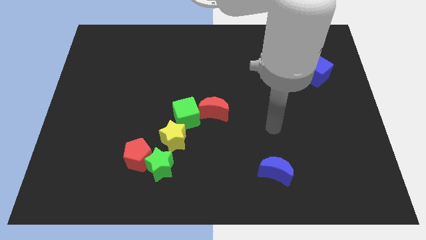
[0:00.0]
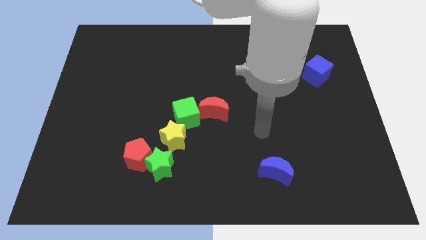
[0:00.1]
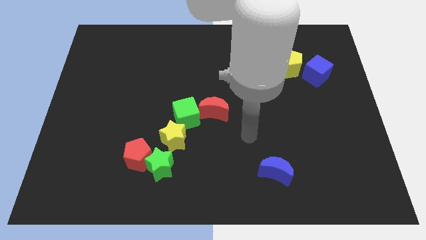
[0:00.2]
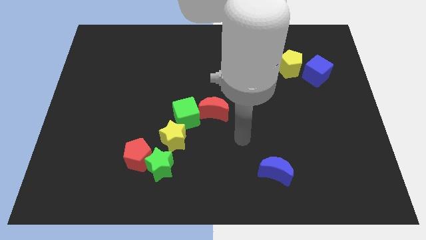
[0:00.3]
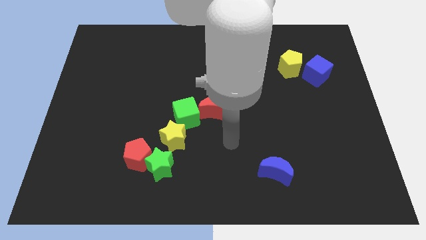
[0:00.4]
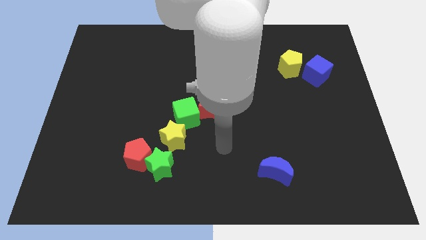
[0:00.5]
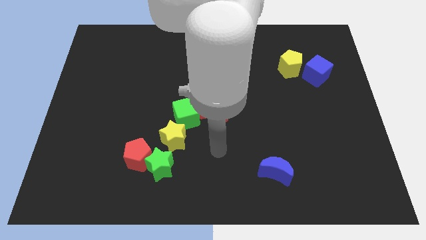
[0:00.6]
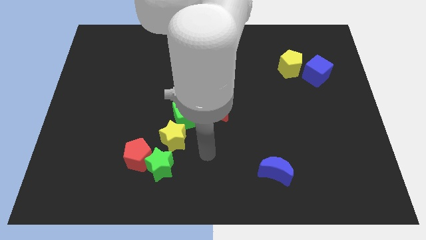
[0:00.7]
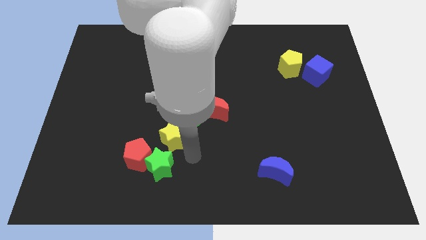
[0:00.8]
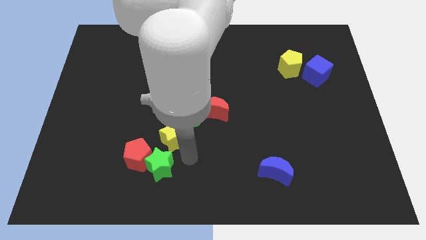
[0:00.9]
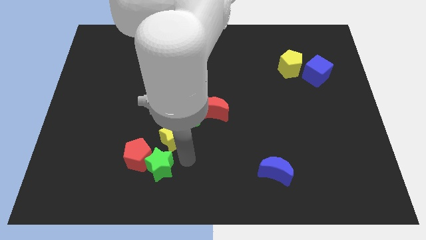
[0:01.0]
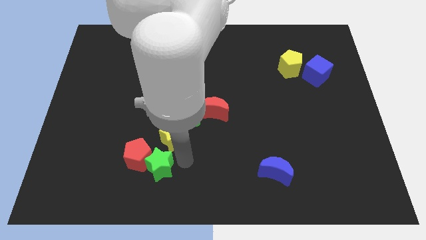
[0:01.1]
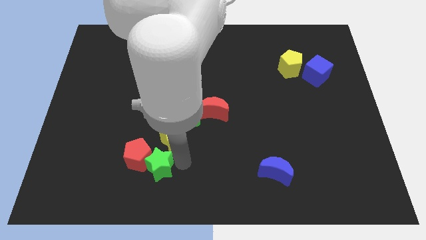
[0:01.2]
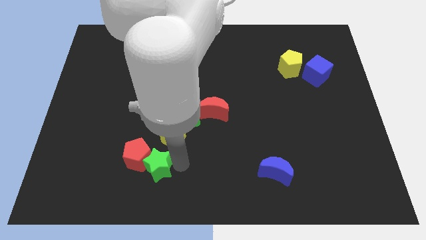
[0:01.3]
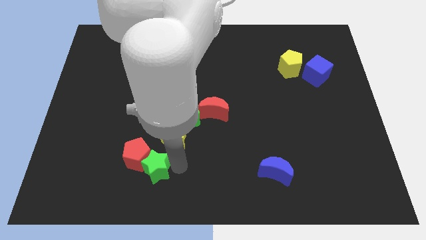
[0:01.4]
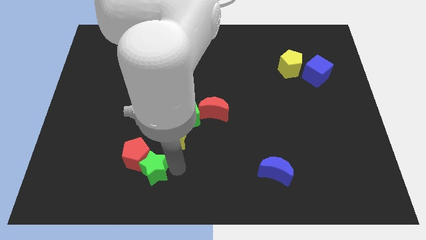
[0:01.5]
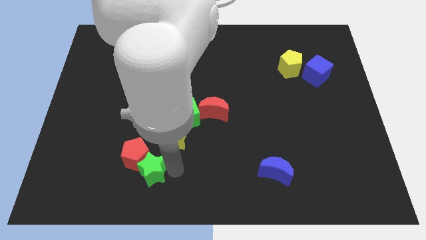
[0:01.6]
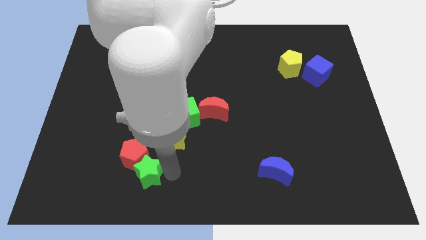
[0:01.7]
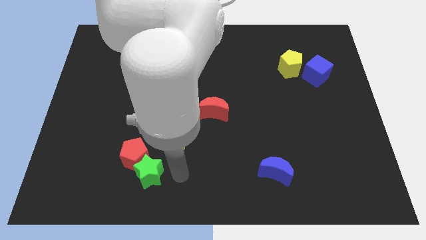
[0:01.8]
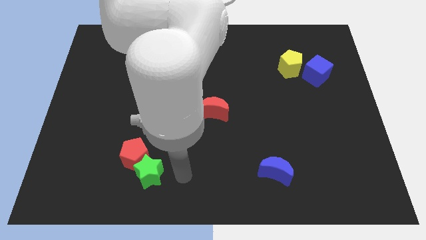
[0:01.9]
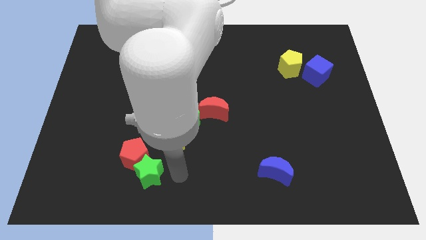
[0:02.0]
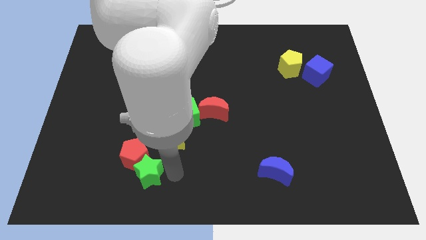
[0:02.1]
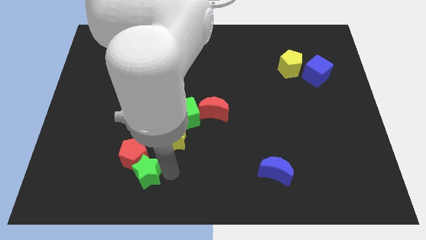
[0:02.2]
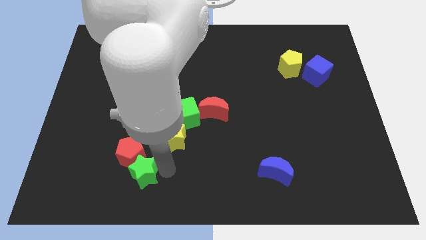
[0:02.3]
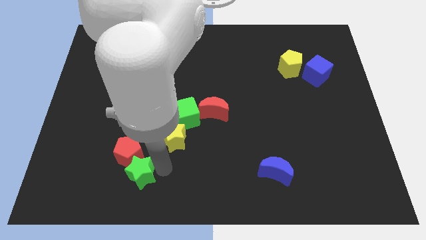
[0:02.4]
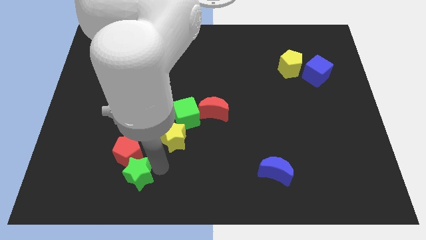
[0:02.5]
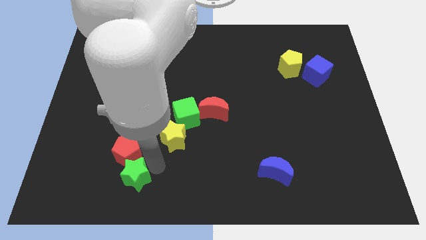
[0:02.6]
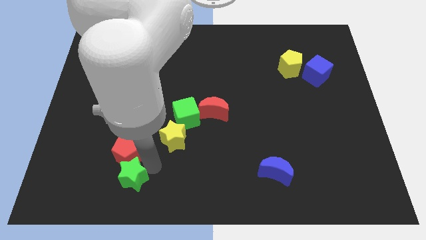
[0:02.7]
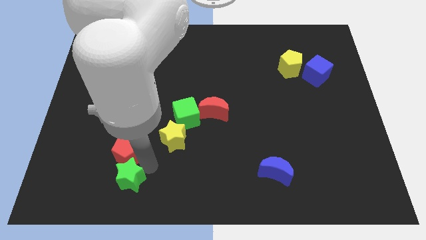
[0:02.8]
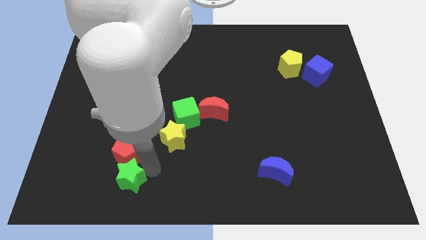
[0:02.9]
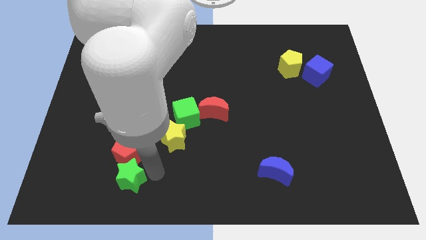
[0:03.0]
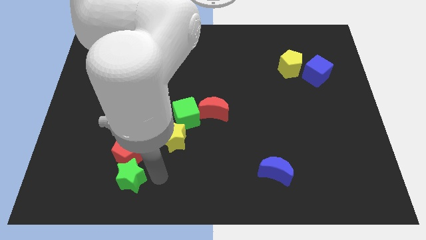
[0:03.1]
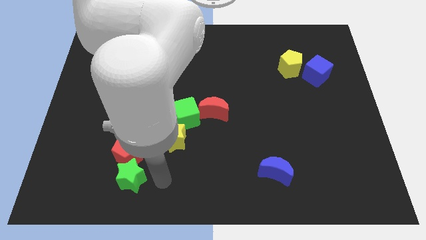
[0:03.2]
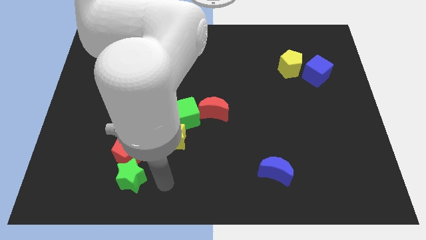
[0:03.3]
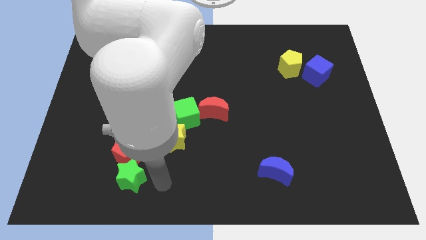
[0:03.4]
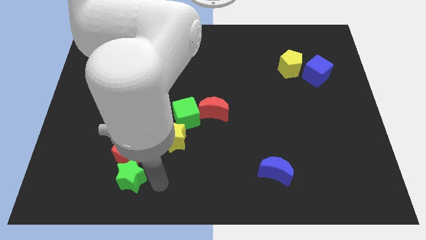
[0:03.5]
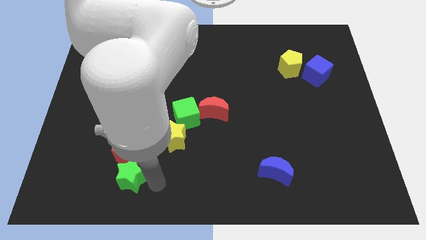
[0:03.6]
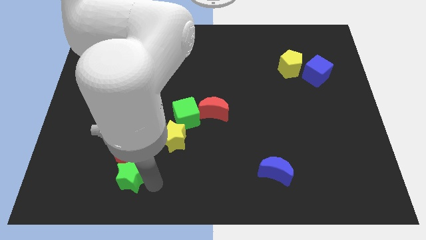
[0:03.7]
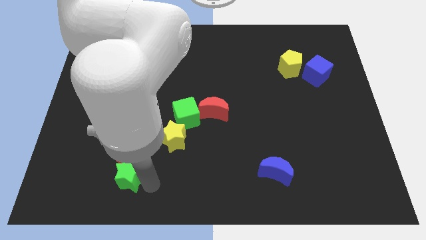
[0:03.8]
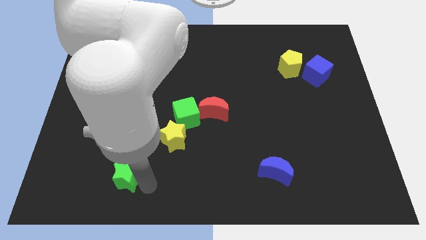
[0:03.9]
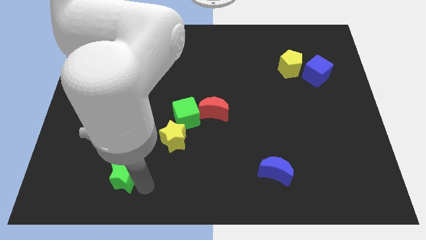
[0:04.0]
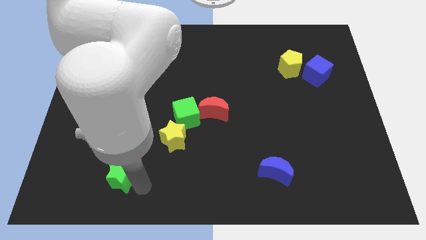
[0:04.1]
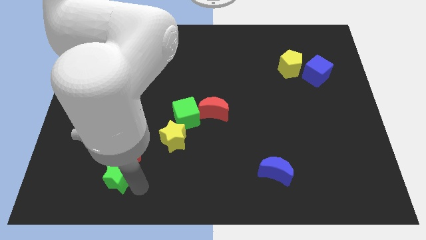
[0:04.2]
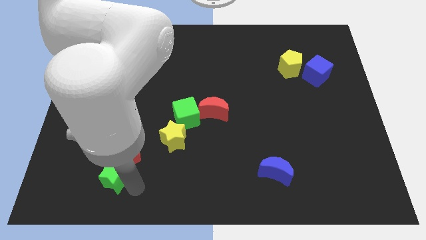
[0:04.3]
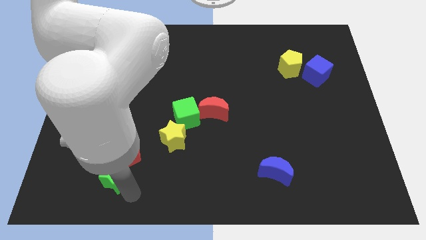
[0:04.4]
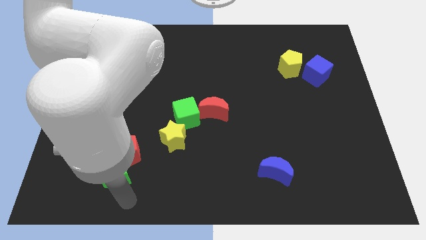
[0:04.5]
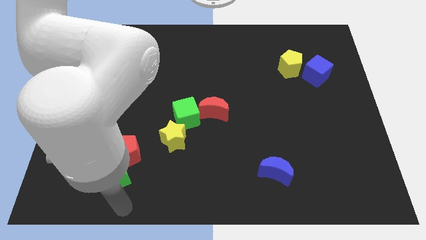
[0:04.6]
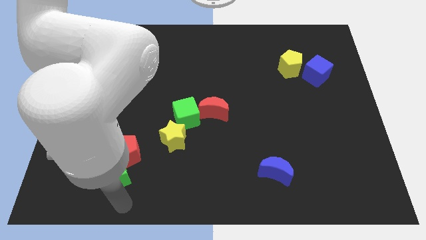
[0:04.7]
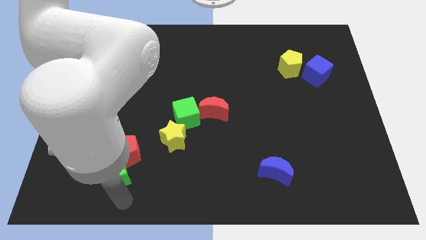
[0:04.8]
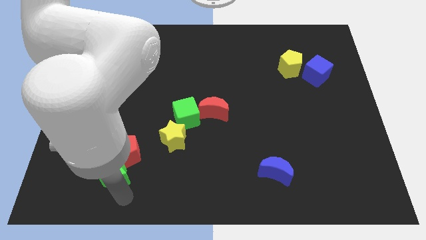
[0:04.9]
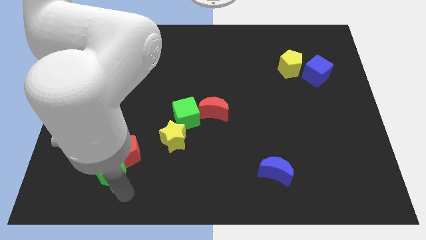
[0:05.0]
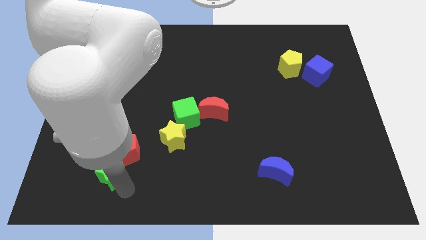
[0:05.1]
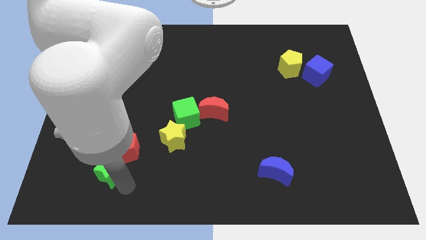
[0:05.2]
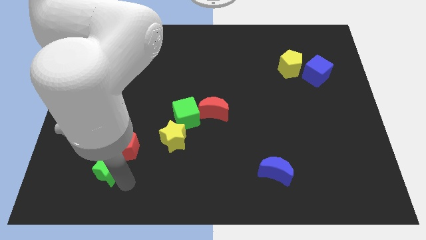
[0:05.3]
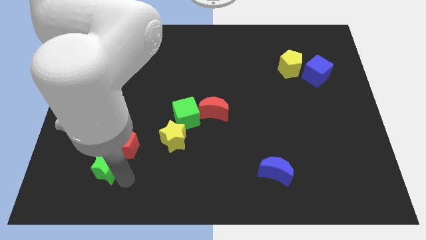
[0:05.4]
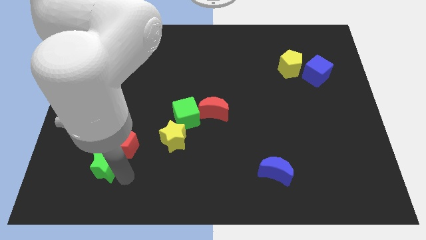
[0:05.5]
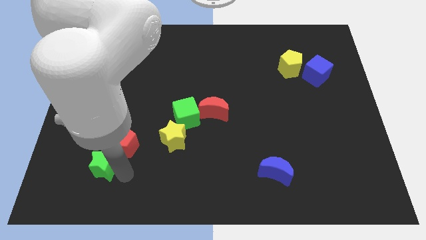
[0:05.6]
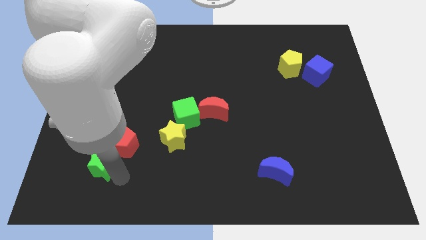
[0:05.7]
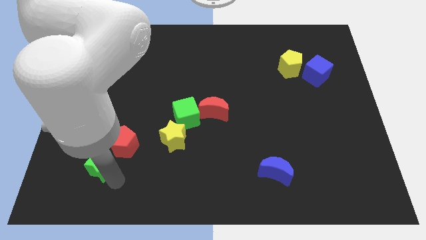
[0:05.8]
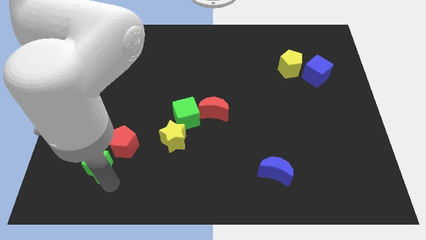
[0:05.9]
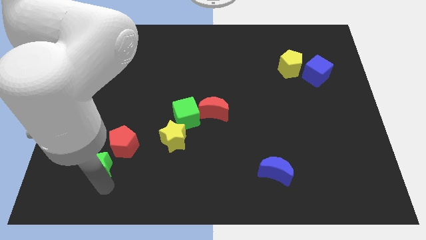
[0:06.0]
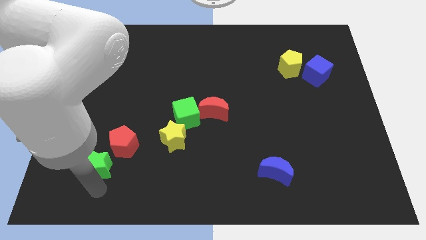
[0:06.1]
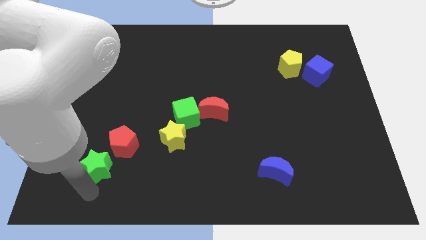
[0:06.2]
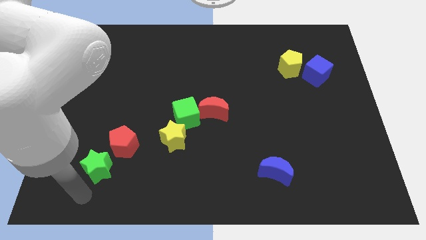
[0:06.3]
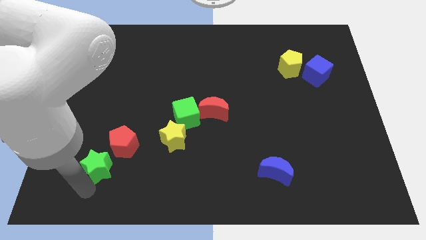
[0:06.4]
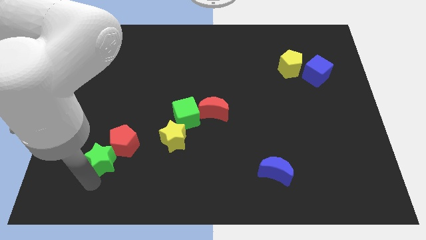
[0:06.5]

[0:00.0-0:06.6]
move the green star a bit diagonally up and left

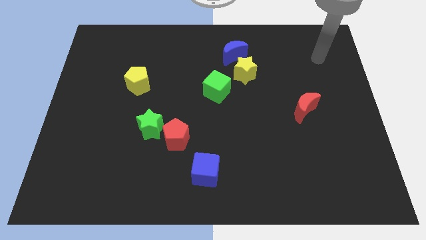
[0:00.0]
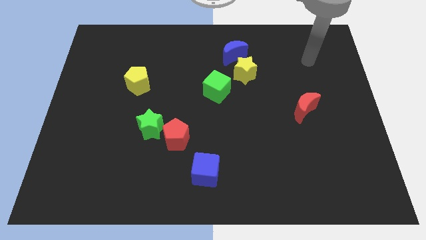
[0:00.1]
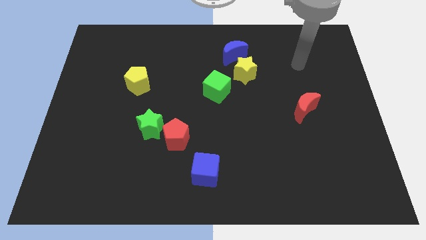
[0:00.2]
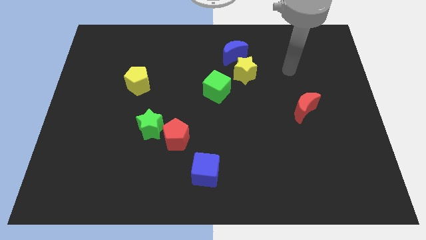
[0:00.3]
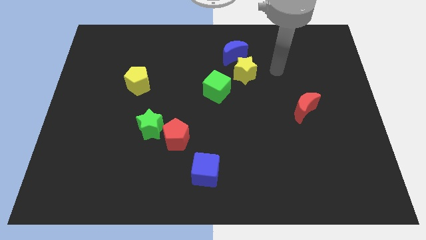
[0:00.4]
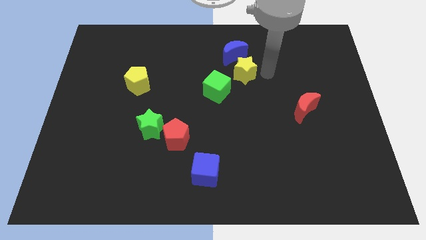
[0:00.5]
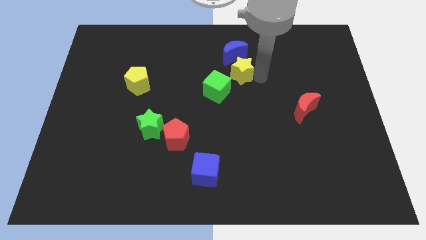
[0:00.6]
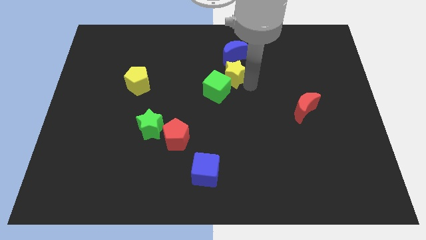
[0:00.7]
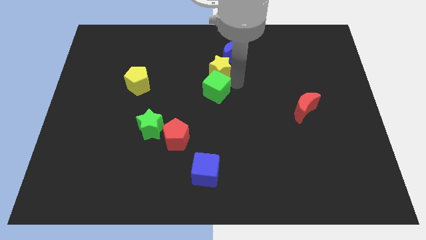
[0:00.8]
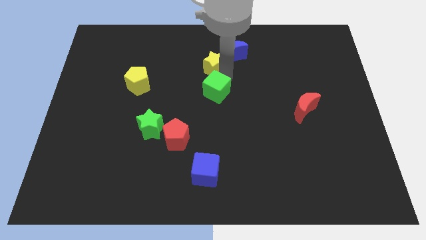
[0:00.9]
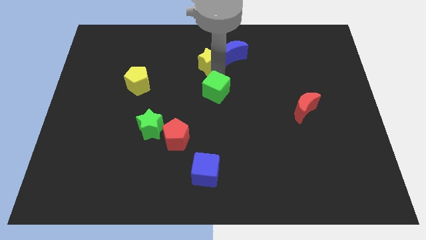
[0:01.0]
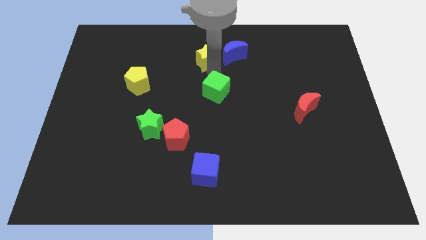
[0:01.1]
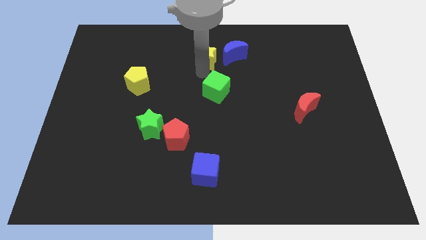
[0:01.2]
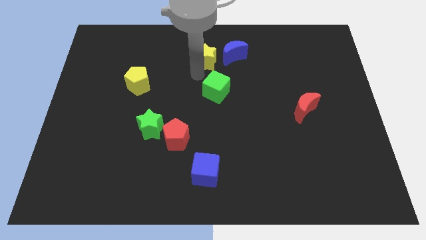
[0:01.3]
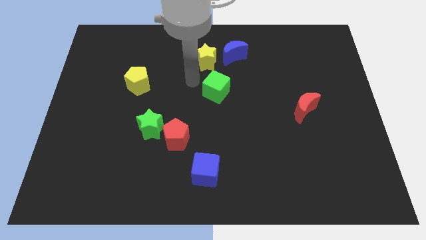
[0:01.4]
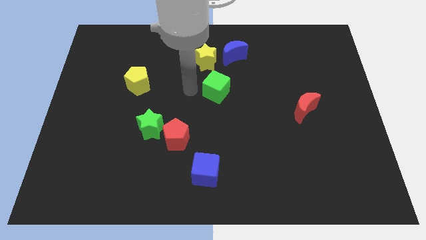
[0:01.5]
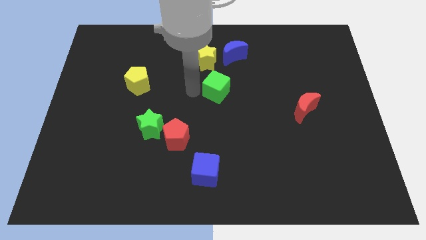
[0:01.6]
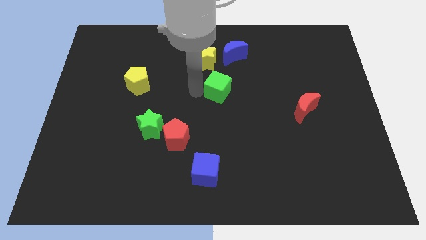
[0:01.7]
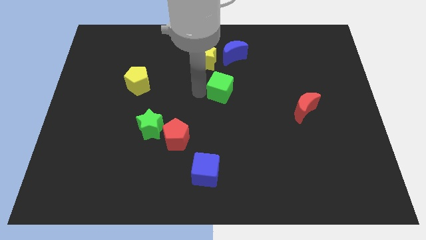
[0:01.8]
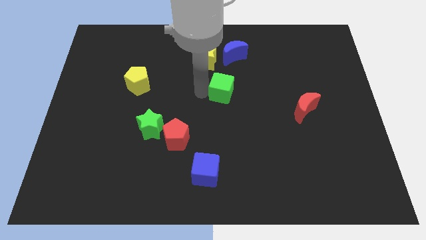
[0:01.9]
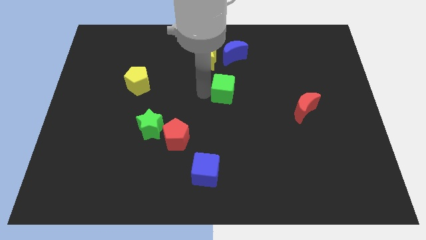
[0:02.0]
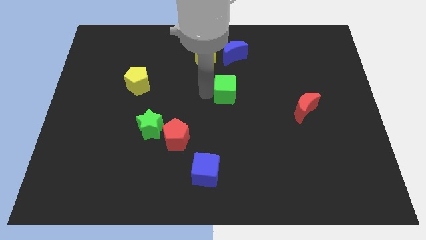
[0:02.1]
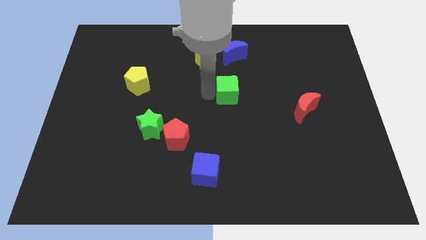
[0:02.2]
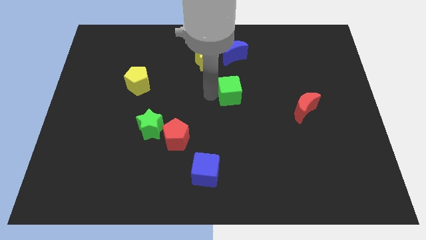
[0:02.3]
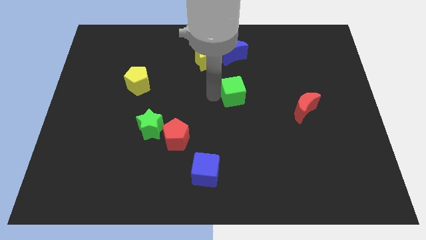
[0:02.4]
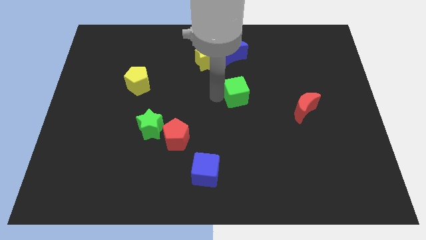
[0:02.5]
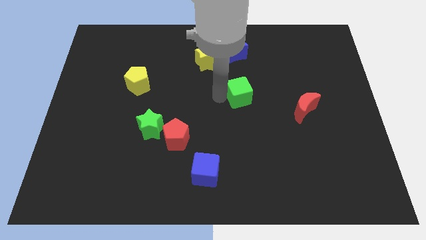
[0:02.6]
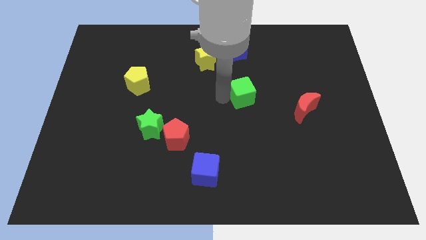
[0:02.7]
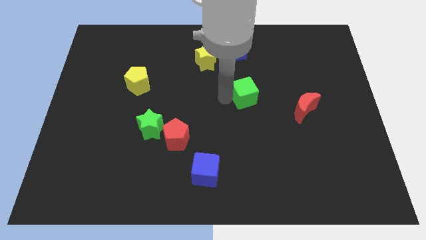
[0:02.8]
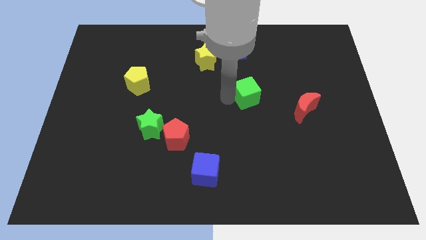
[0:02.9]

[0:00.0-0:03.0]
slightly push the green cube to the right
